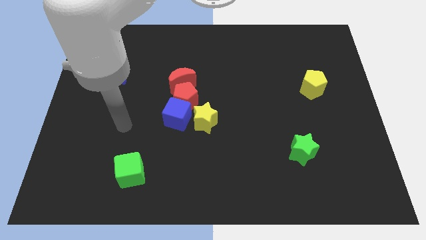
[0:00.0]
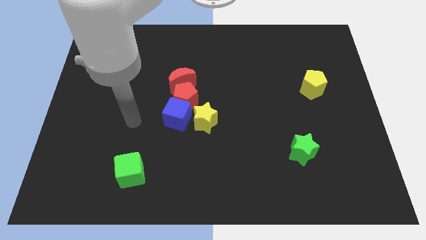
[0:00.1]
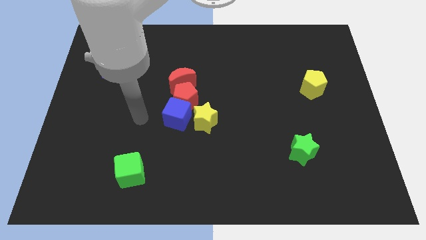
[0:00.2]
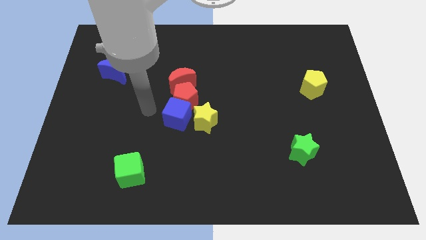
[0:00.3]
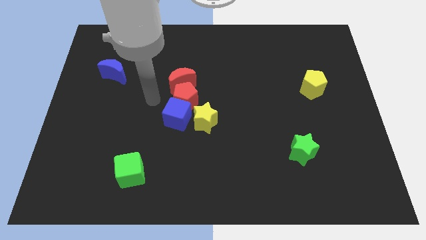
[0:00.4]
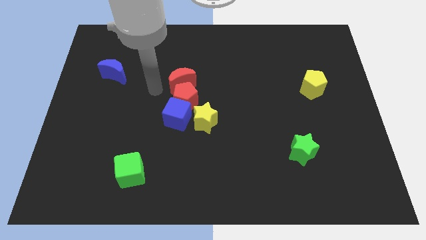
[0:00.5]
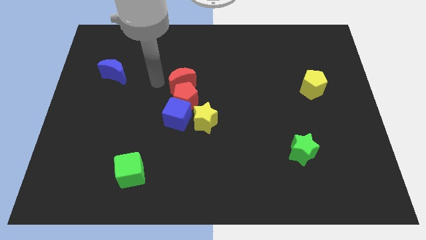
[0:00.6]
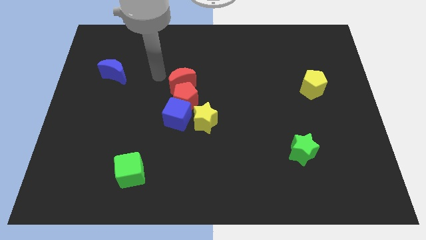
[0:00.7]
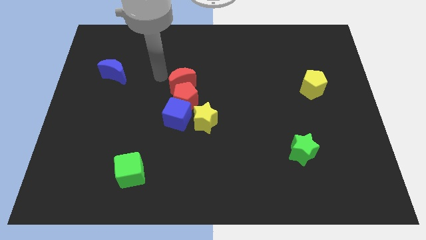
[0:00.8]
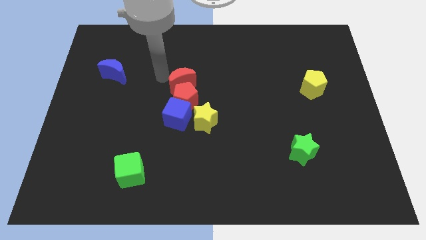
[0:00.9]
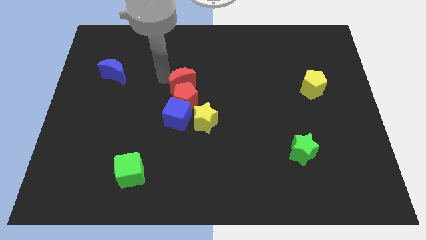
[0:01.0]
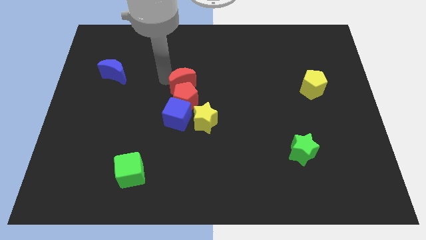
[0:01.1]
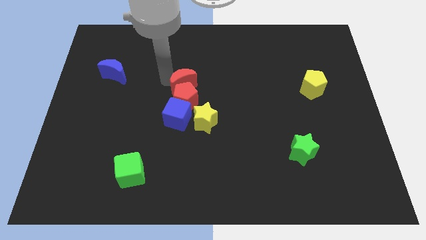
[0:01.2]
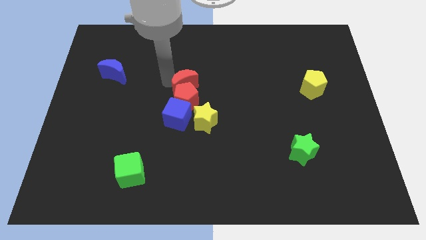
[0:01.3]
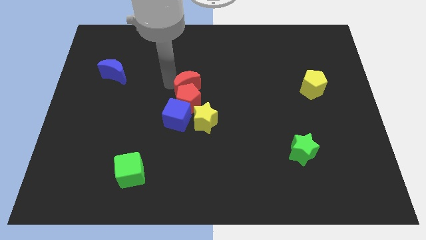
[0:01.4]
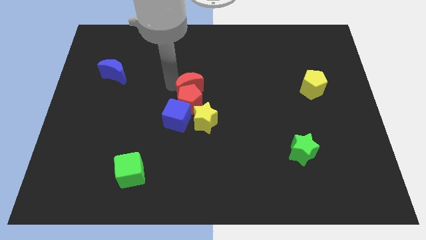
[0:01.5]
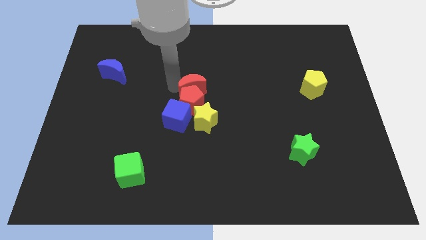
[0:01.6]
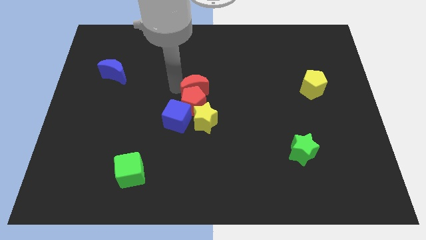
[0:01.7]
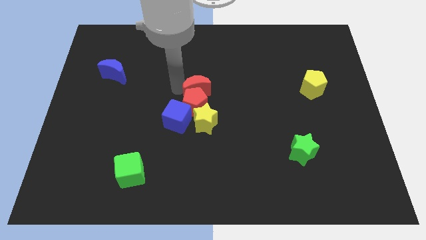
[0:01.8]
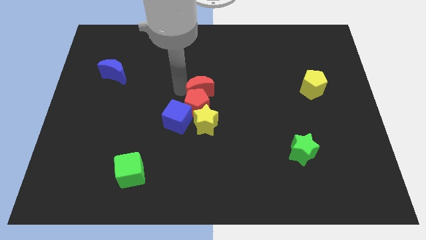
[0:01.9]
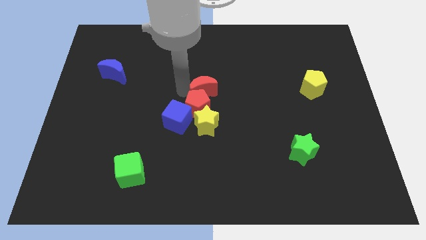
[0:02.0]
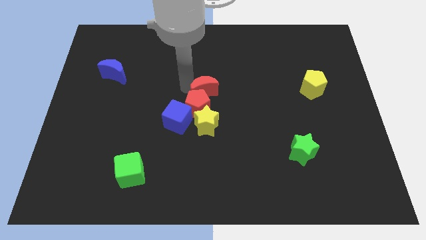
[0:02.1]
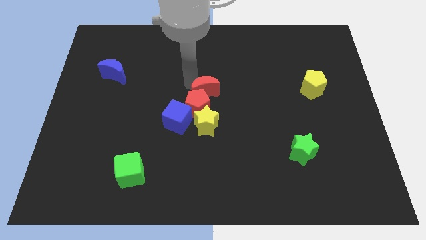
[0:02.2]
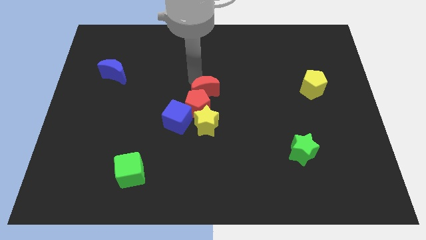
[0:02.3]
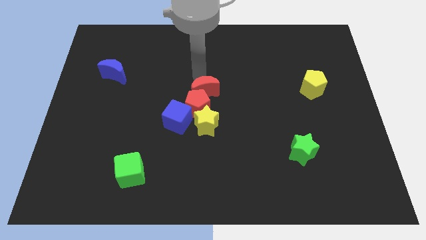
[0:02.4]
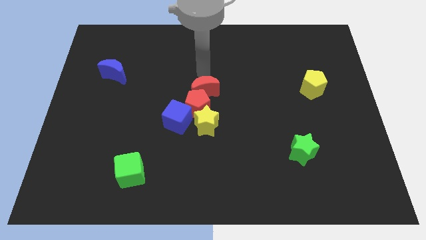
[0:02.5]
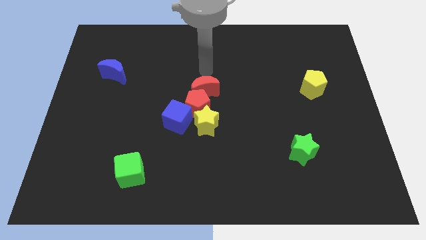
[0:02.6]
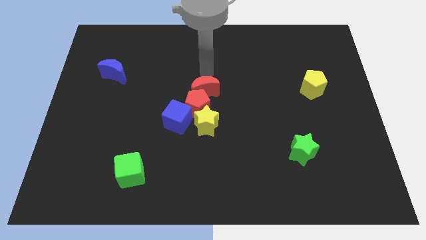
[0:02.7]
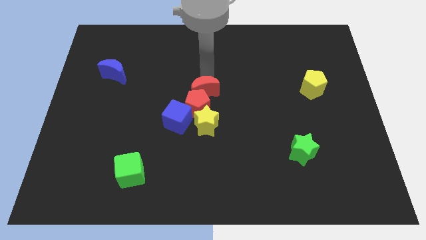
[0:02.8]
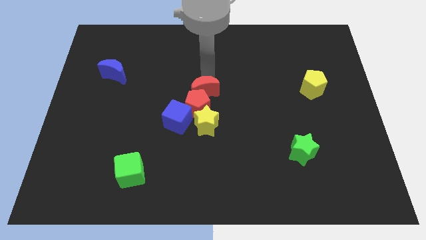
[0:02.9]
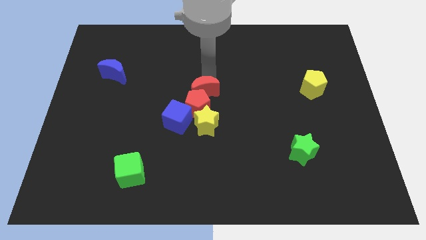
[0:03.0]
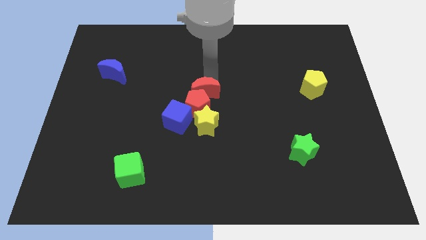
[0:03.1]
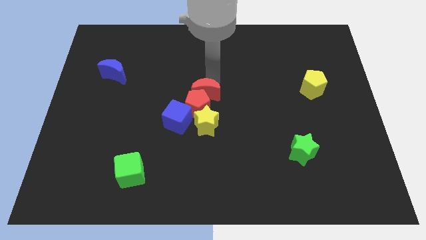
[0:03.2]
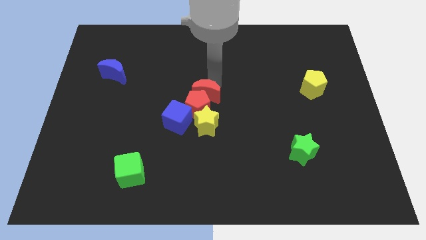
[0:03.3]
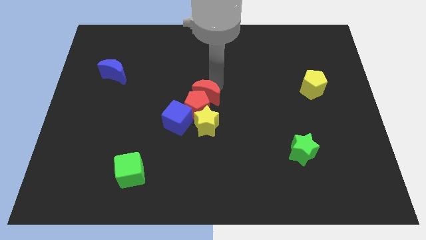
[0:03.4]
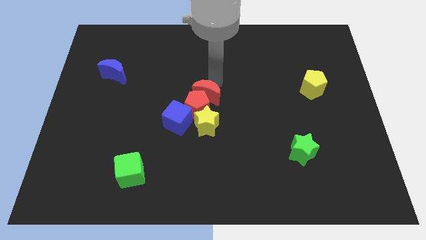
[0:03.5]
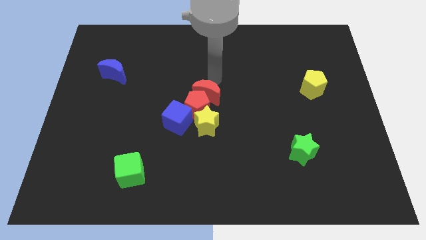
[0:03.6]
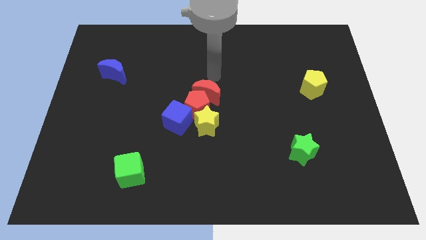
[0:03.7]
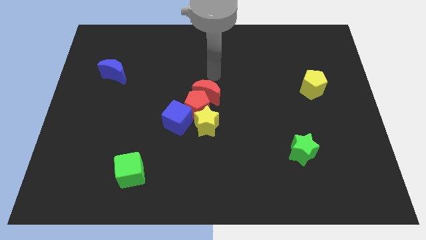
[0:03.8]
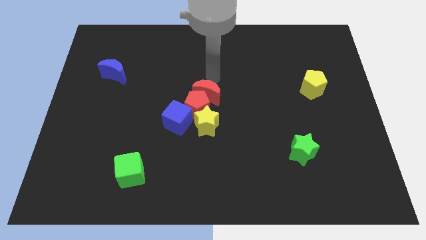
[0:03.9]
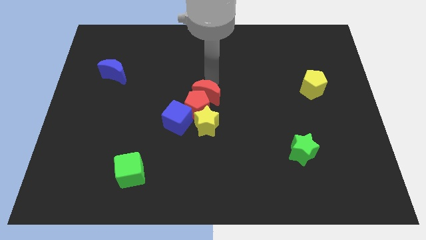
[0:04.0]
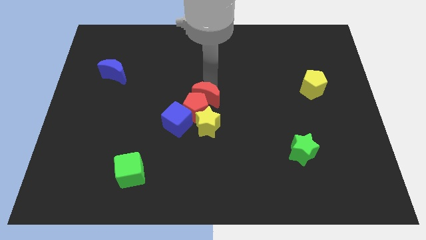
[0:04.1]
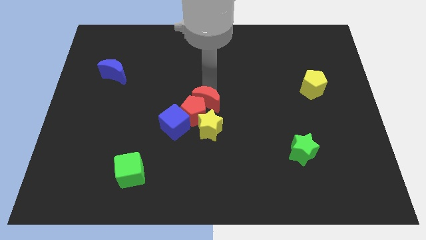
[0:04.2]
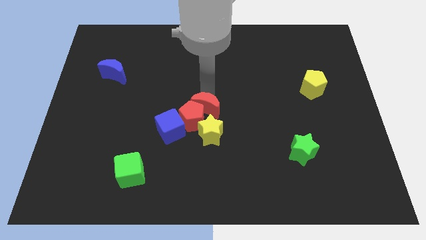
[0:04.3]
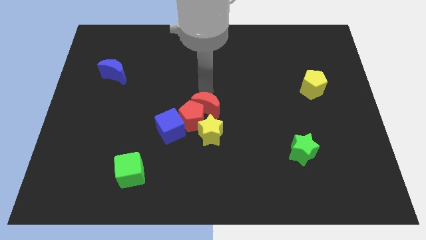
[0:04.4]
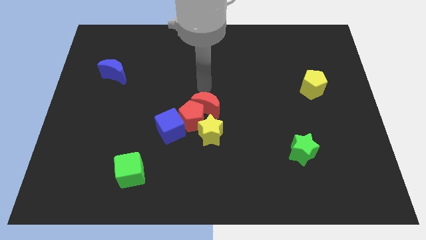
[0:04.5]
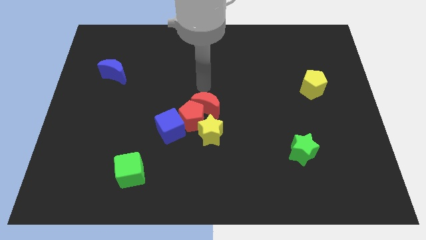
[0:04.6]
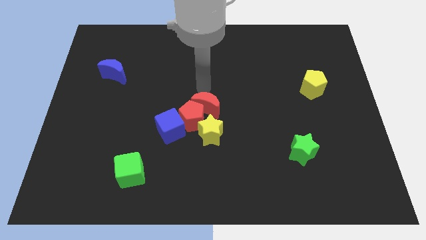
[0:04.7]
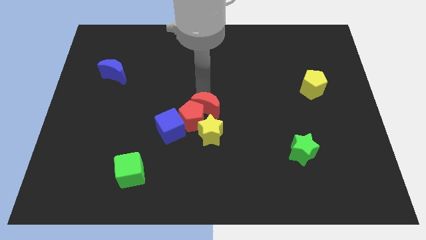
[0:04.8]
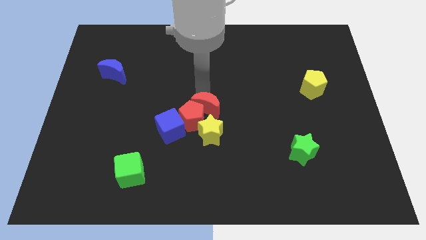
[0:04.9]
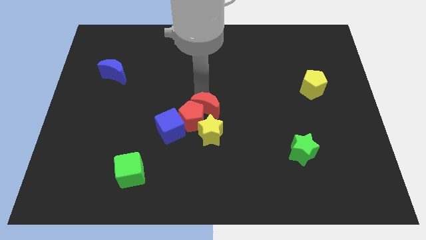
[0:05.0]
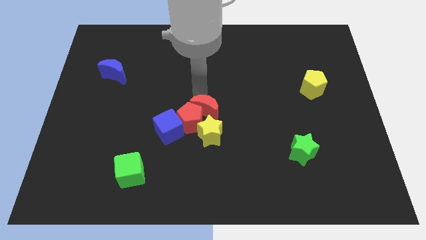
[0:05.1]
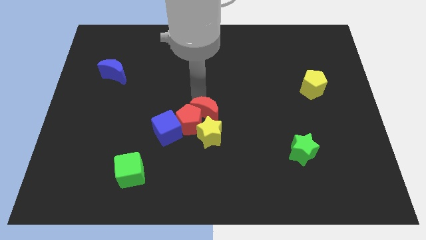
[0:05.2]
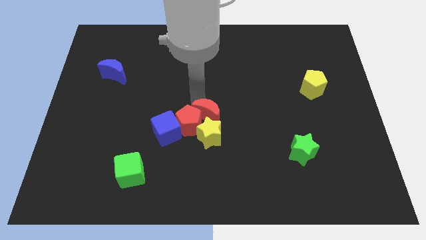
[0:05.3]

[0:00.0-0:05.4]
move the red moon close to the yellow star

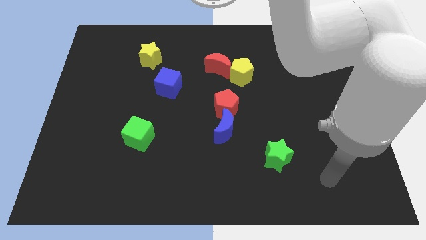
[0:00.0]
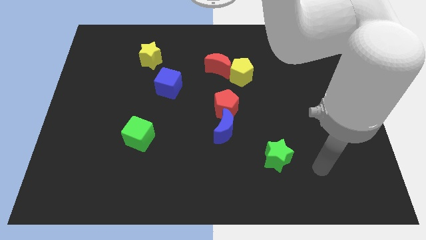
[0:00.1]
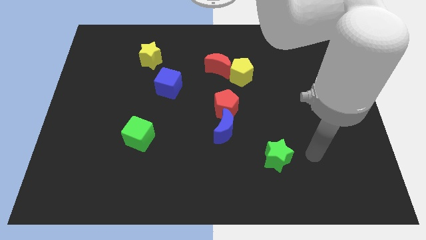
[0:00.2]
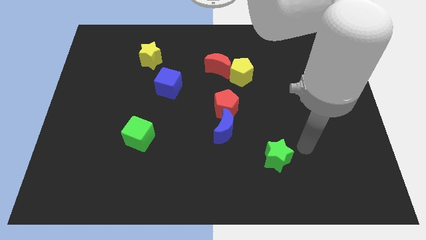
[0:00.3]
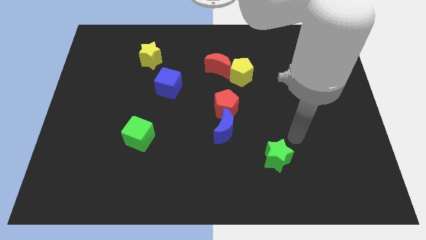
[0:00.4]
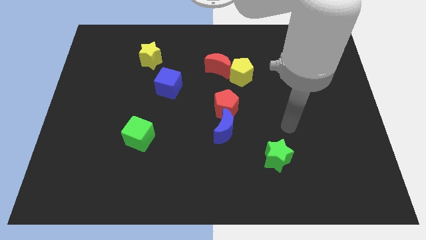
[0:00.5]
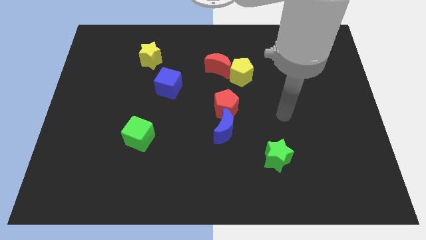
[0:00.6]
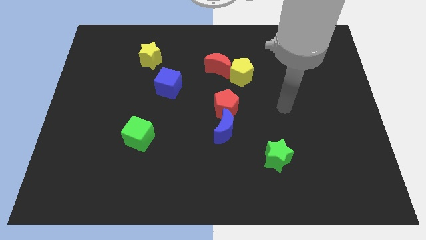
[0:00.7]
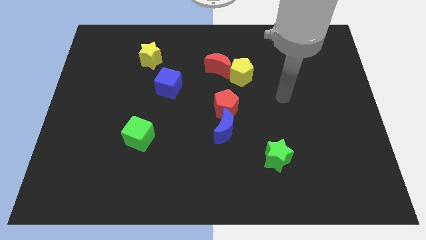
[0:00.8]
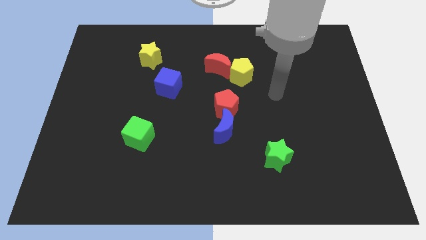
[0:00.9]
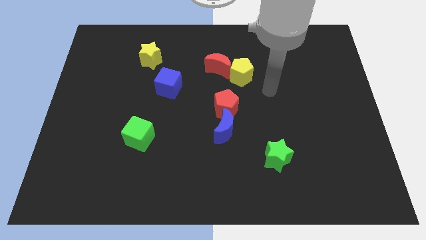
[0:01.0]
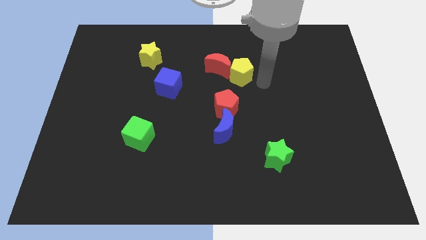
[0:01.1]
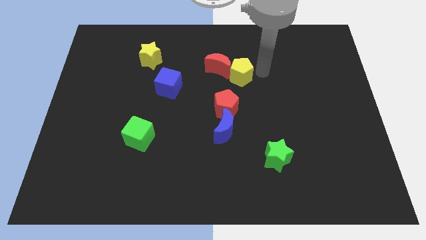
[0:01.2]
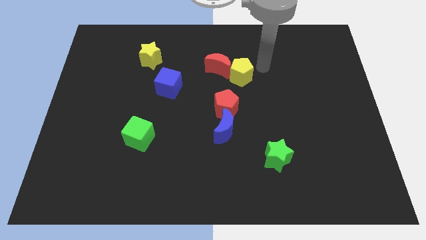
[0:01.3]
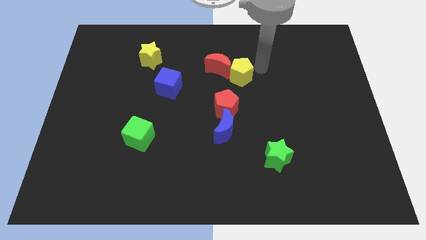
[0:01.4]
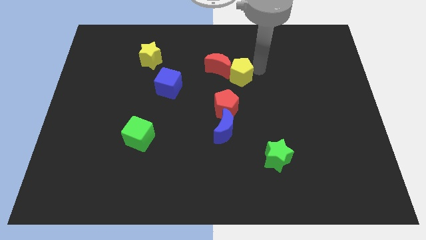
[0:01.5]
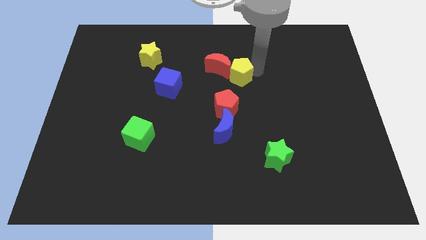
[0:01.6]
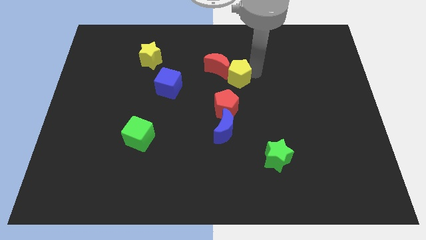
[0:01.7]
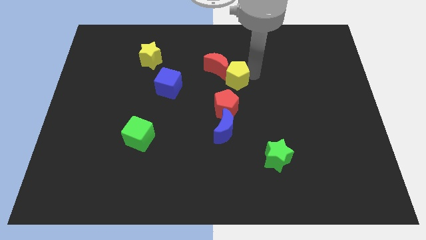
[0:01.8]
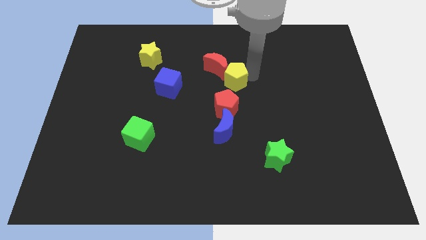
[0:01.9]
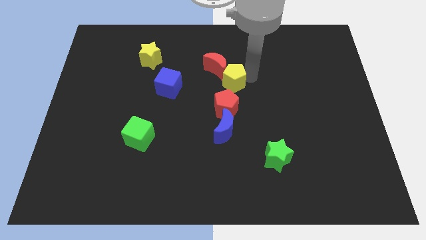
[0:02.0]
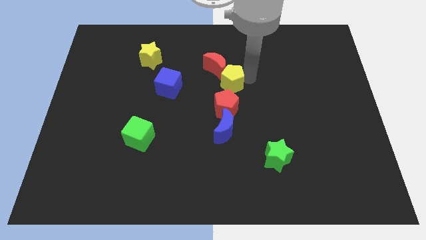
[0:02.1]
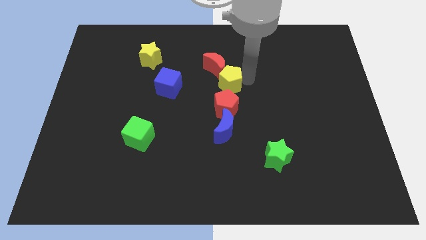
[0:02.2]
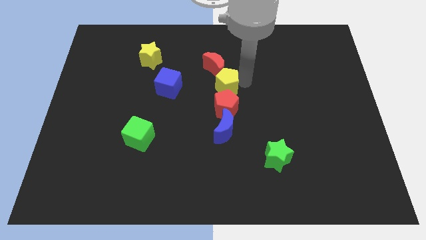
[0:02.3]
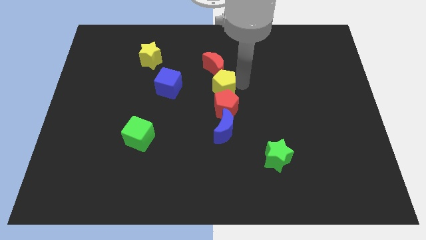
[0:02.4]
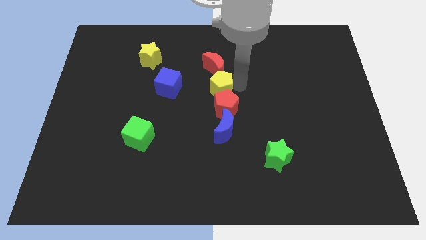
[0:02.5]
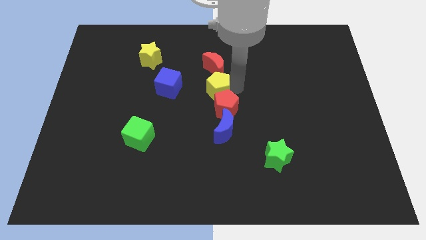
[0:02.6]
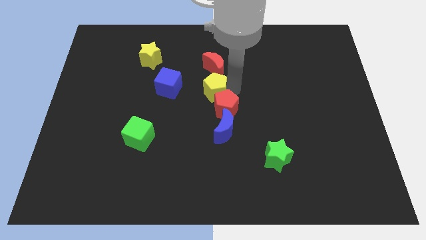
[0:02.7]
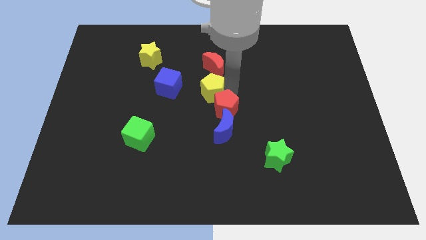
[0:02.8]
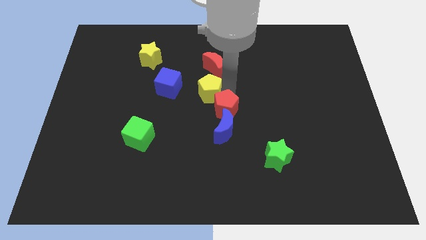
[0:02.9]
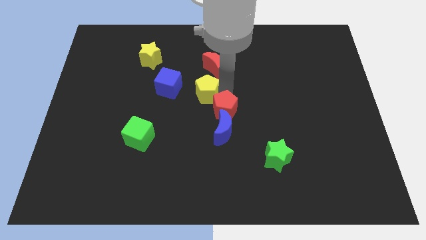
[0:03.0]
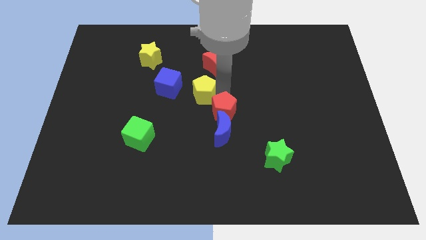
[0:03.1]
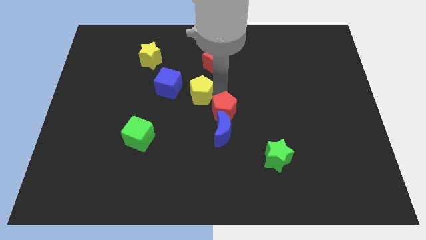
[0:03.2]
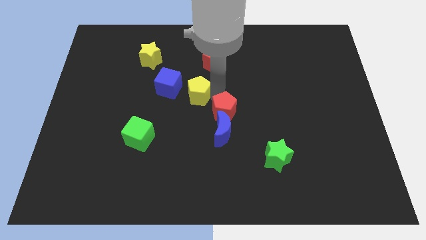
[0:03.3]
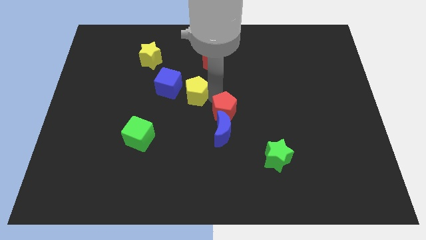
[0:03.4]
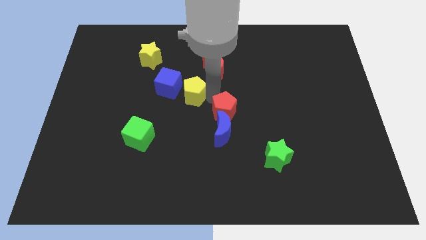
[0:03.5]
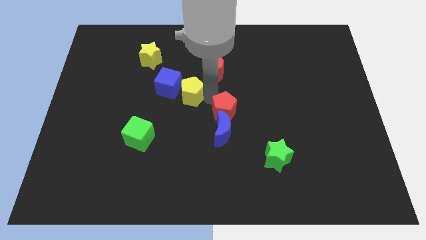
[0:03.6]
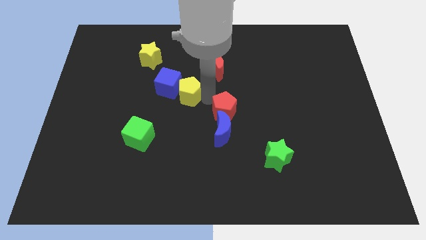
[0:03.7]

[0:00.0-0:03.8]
put the yellow pentagon towards the blue cube
